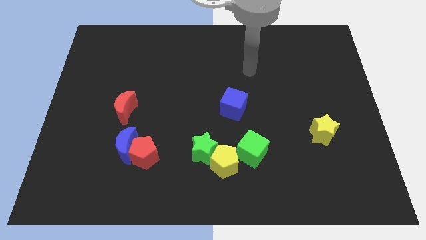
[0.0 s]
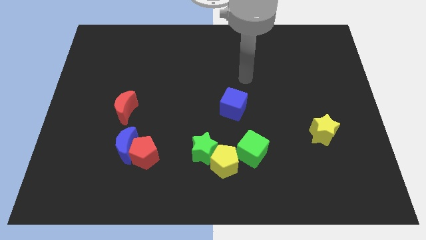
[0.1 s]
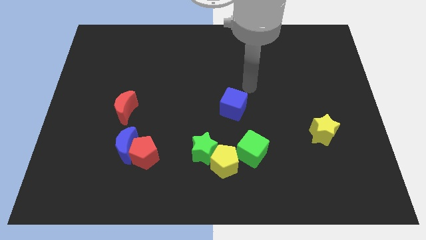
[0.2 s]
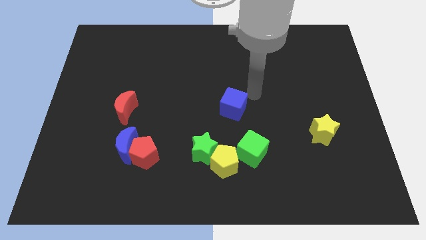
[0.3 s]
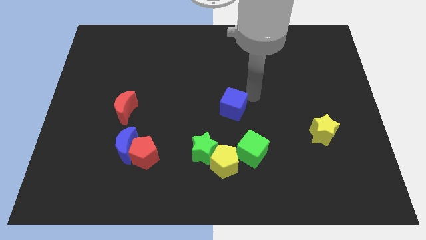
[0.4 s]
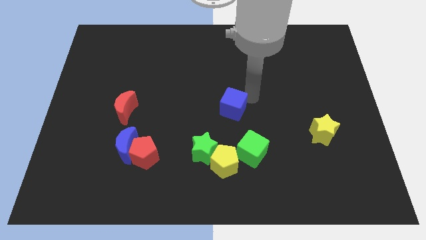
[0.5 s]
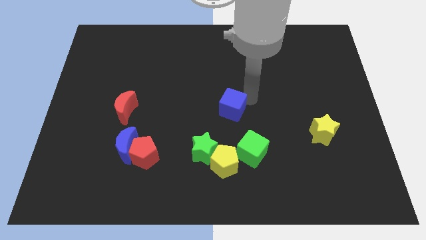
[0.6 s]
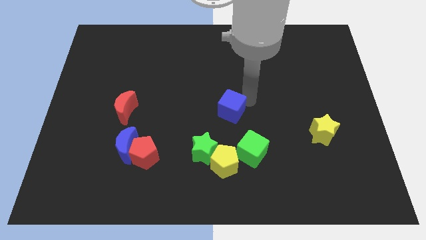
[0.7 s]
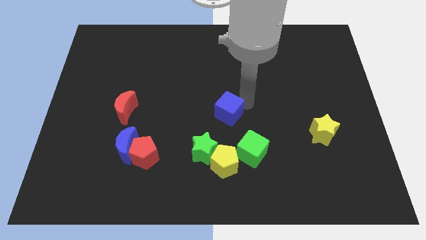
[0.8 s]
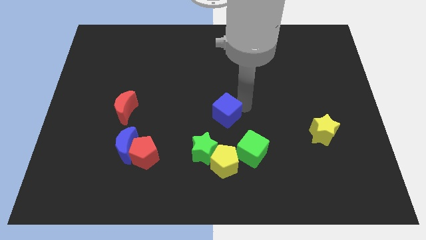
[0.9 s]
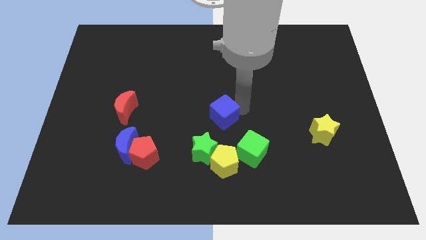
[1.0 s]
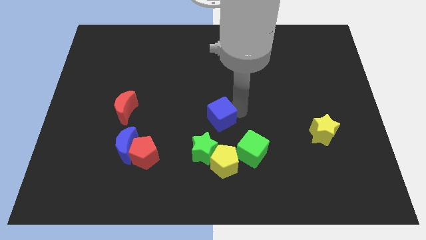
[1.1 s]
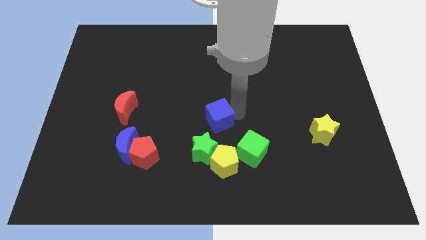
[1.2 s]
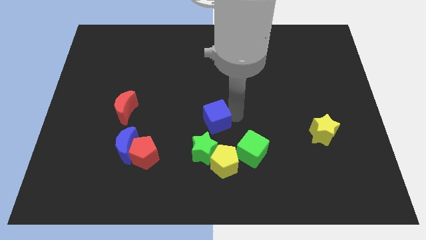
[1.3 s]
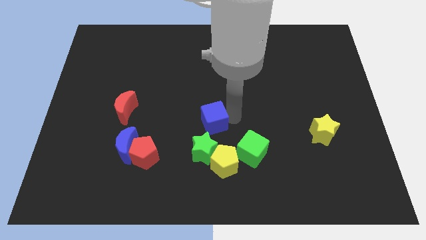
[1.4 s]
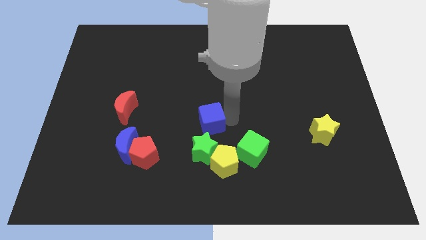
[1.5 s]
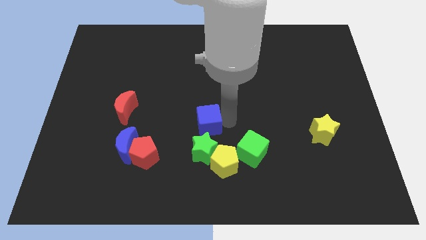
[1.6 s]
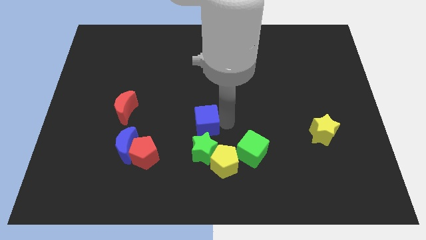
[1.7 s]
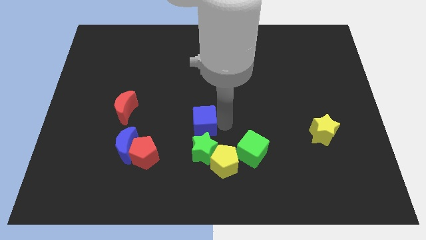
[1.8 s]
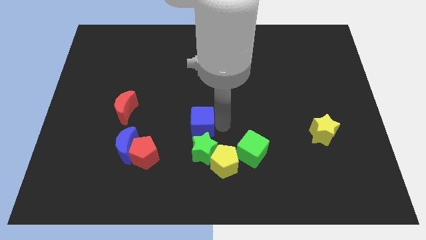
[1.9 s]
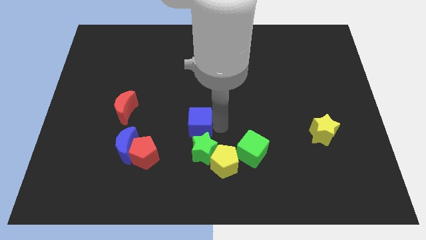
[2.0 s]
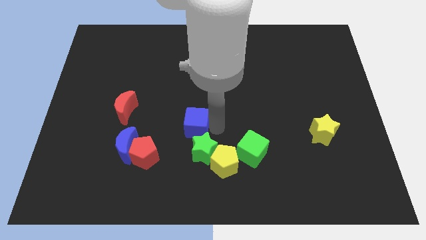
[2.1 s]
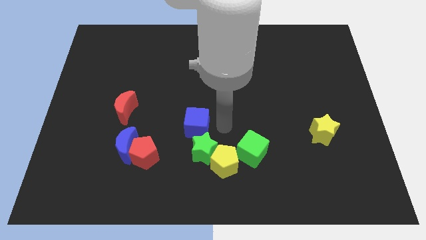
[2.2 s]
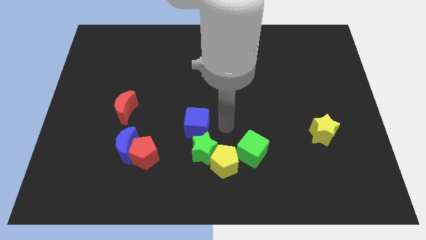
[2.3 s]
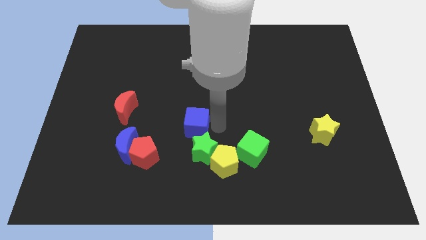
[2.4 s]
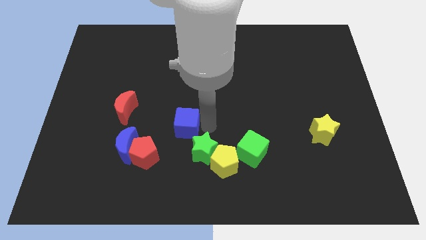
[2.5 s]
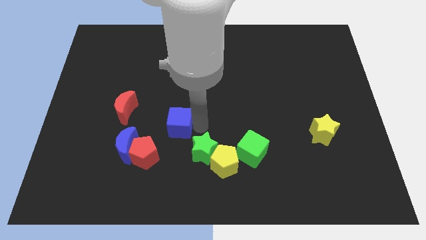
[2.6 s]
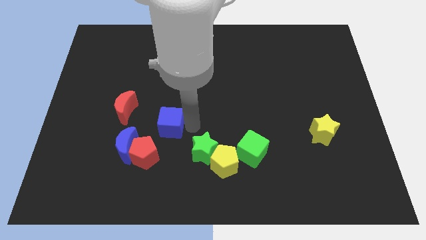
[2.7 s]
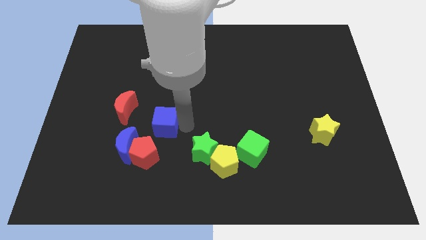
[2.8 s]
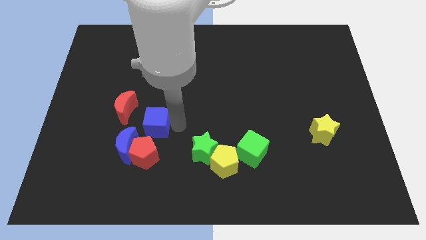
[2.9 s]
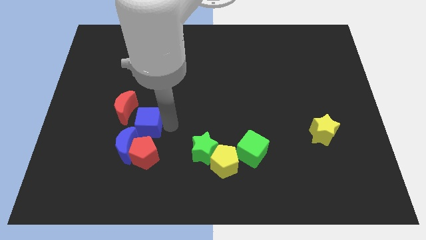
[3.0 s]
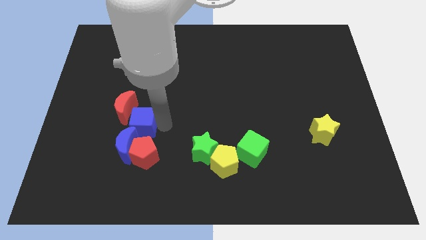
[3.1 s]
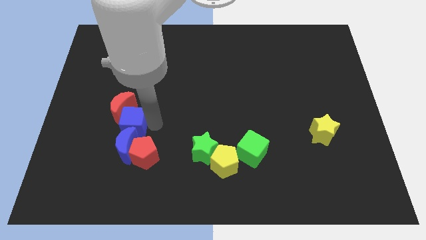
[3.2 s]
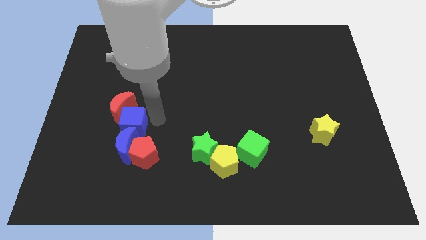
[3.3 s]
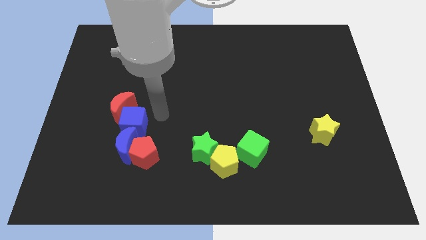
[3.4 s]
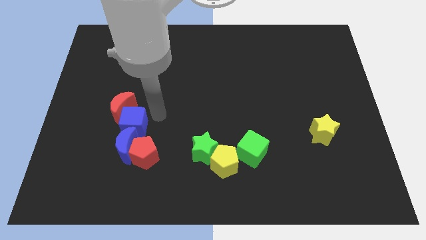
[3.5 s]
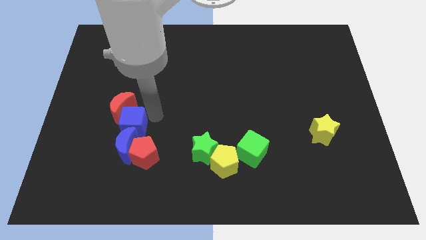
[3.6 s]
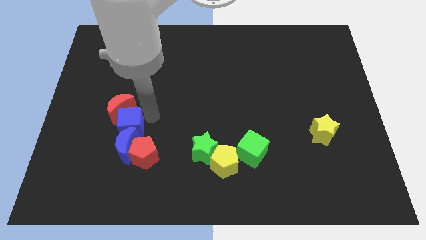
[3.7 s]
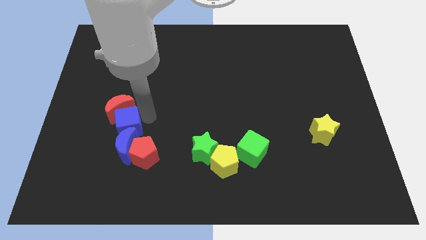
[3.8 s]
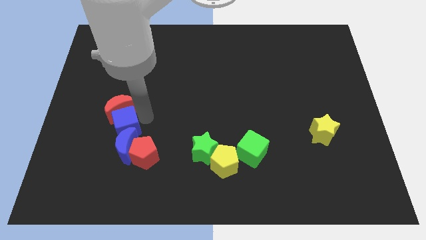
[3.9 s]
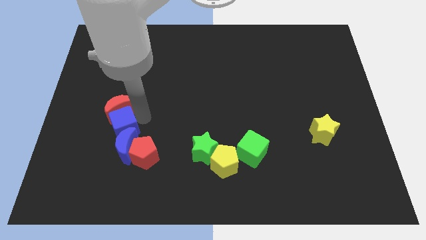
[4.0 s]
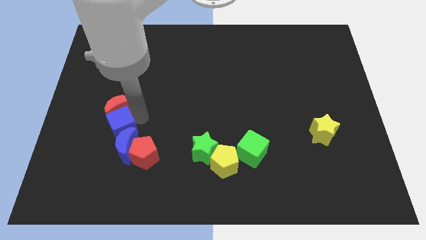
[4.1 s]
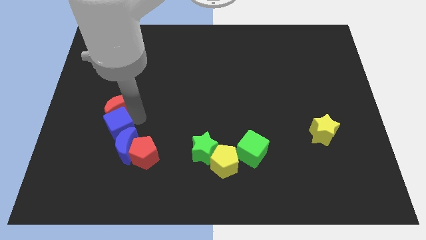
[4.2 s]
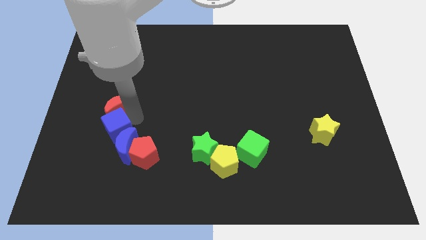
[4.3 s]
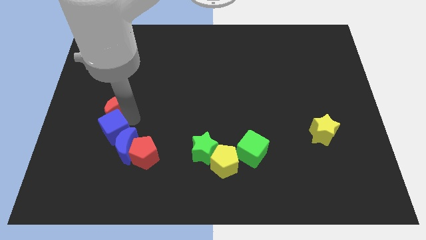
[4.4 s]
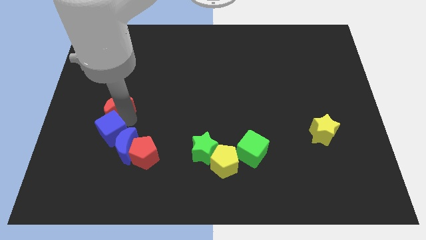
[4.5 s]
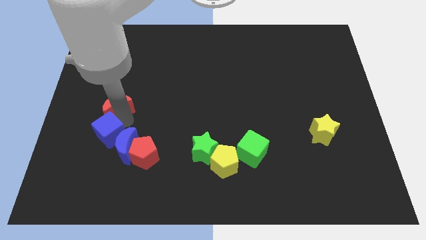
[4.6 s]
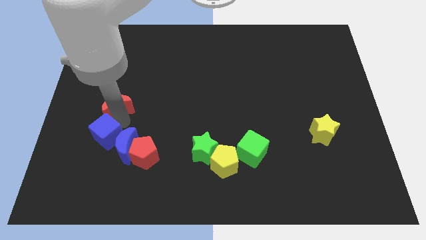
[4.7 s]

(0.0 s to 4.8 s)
slide the blue cube to the left of the red pentagon

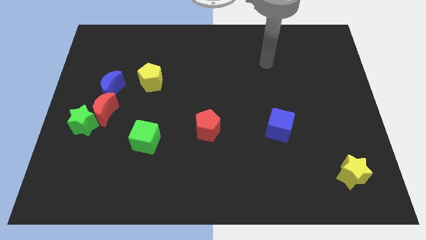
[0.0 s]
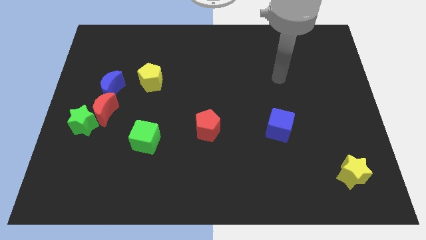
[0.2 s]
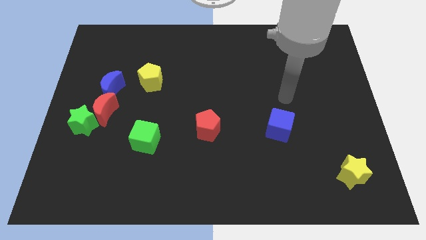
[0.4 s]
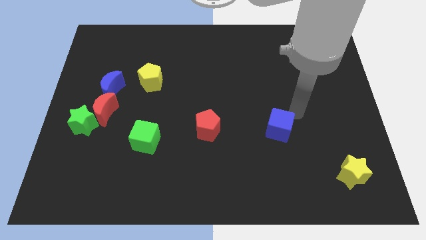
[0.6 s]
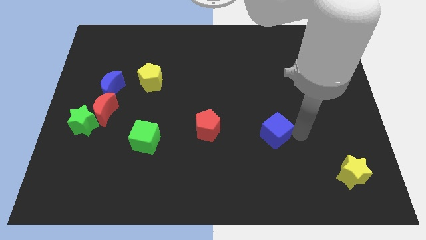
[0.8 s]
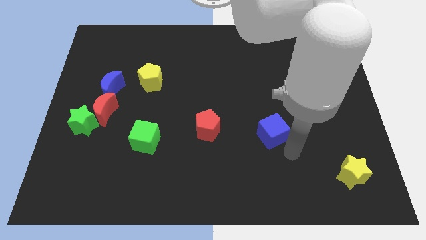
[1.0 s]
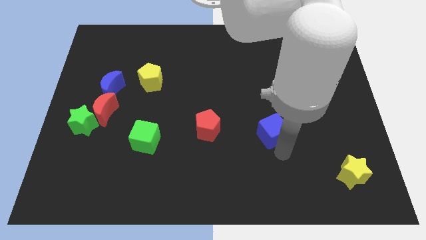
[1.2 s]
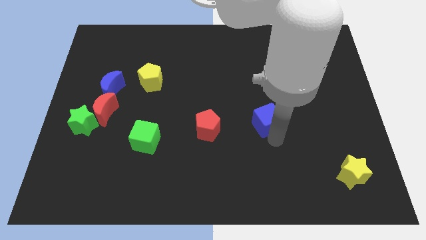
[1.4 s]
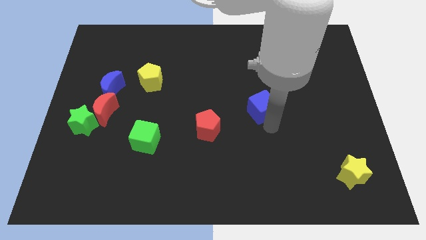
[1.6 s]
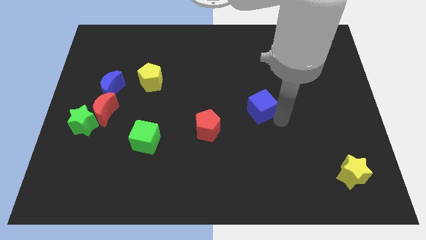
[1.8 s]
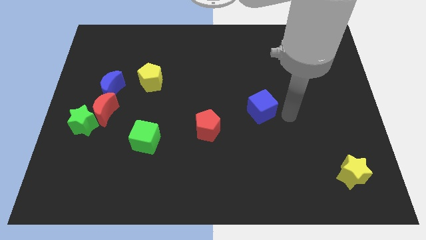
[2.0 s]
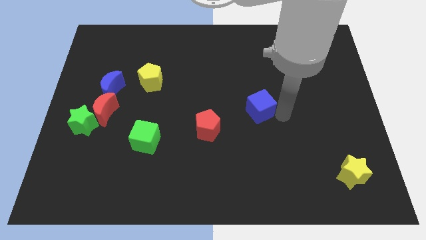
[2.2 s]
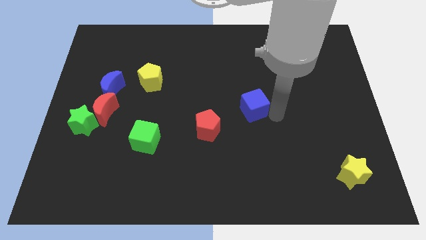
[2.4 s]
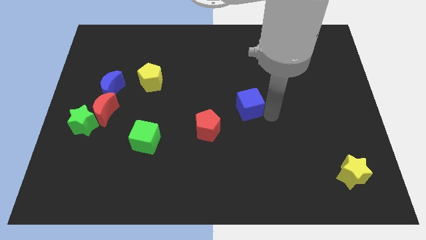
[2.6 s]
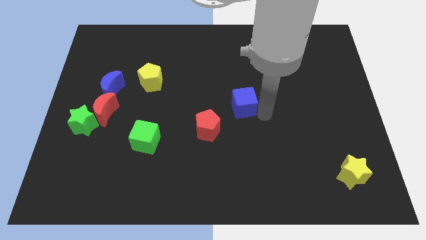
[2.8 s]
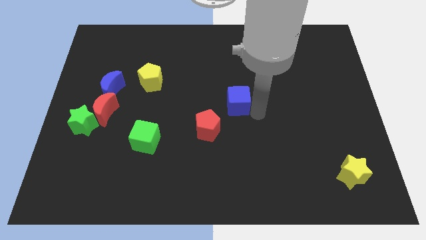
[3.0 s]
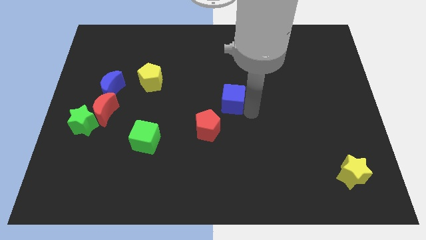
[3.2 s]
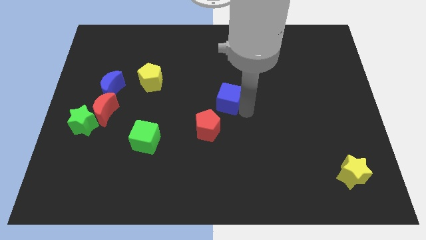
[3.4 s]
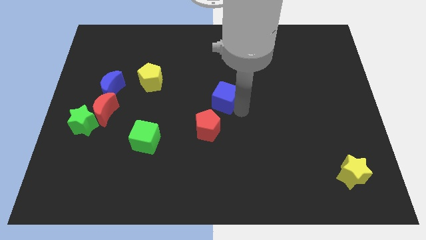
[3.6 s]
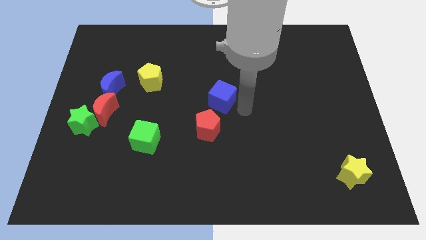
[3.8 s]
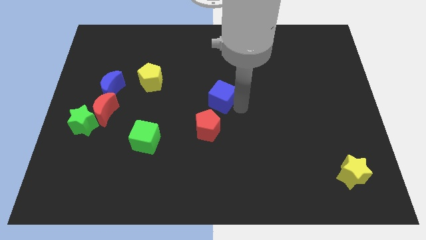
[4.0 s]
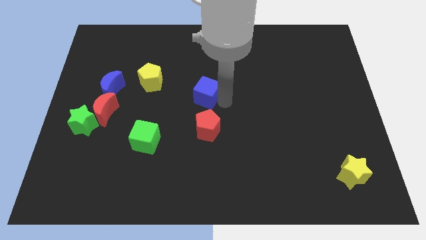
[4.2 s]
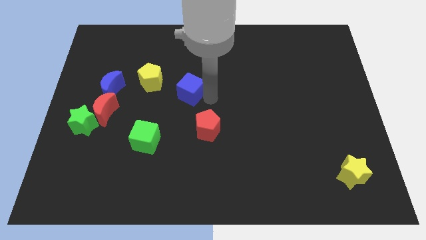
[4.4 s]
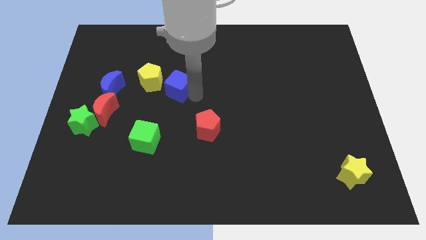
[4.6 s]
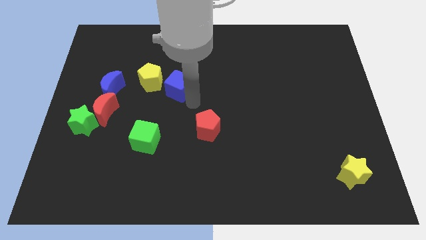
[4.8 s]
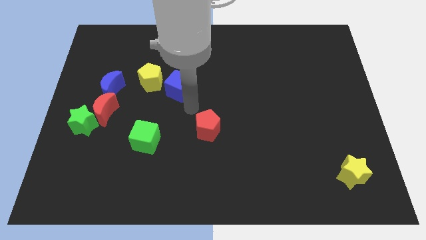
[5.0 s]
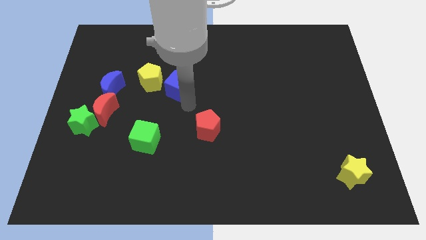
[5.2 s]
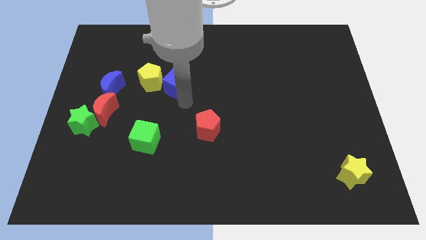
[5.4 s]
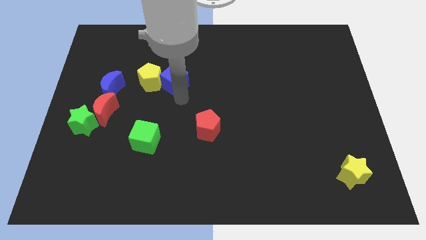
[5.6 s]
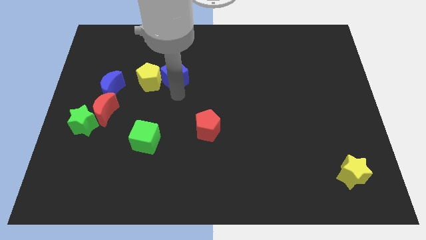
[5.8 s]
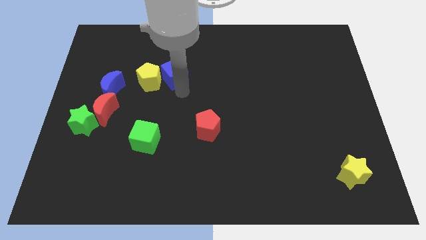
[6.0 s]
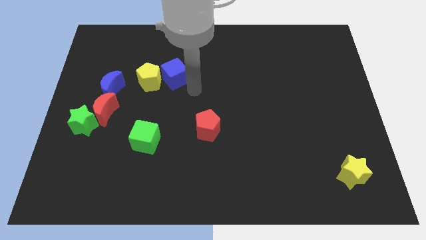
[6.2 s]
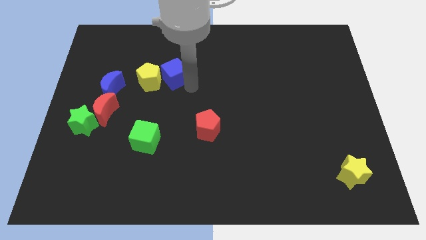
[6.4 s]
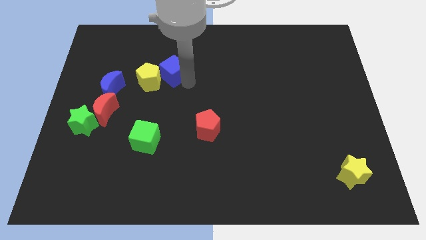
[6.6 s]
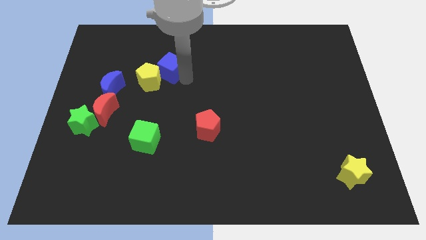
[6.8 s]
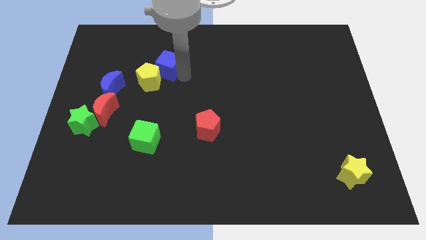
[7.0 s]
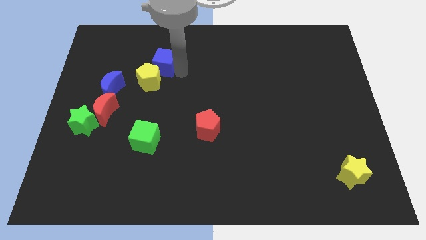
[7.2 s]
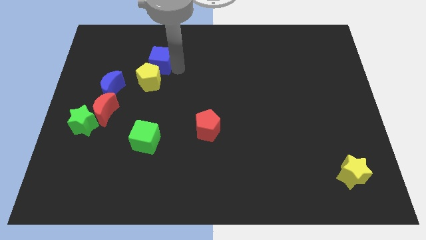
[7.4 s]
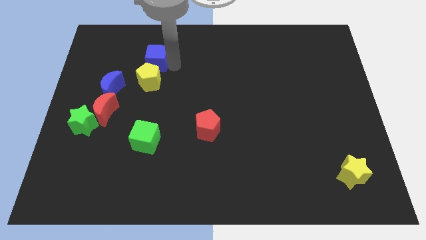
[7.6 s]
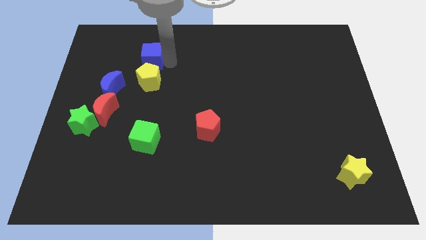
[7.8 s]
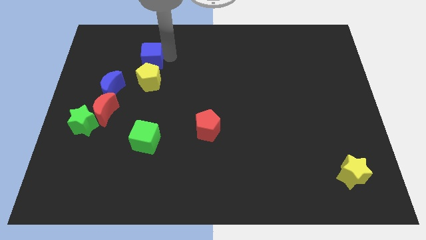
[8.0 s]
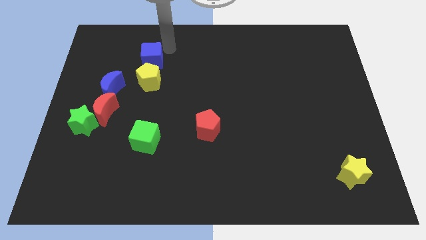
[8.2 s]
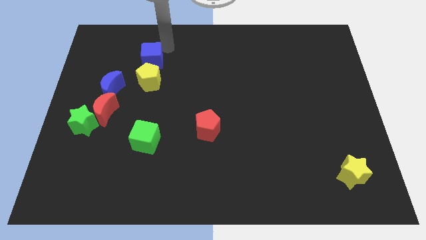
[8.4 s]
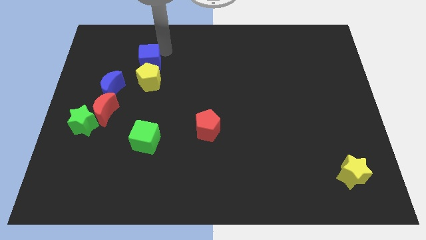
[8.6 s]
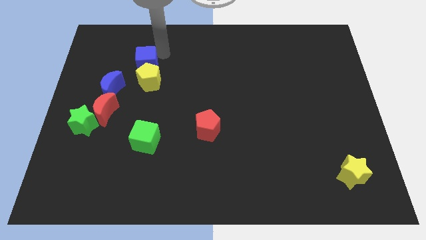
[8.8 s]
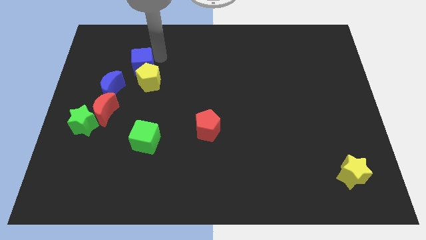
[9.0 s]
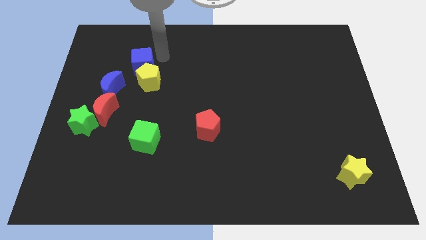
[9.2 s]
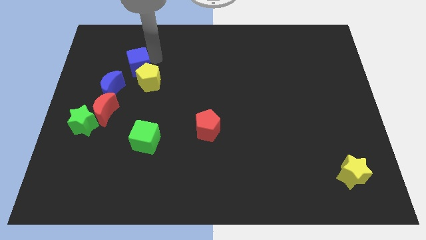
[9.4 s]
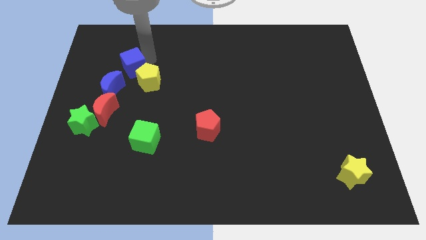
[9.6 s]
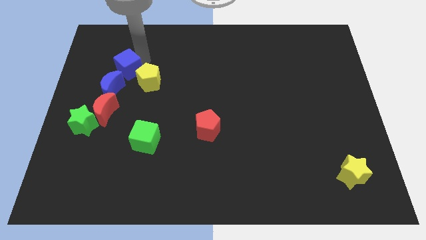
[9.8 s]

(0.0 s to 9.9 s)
put the blue cube to the top of the red moon
